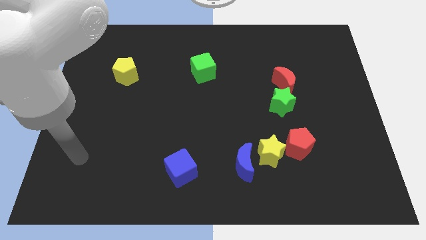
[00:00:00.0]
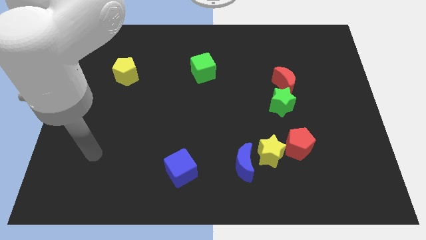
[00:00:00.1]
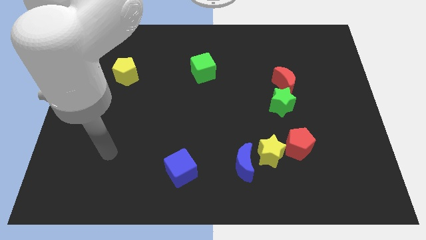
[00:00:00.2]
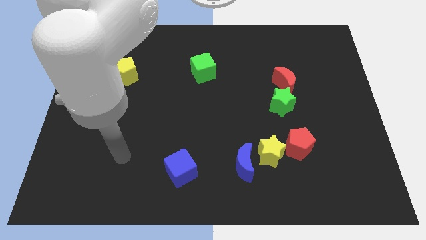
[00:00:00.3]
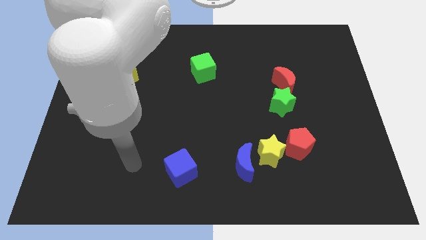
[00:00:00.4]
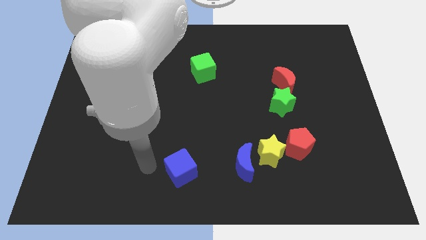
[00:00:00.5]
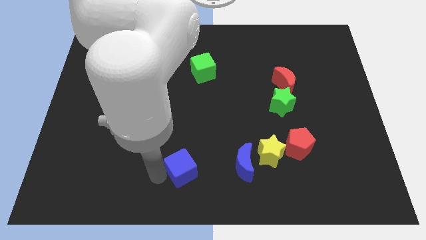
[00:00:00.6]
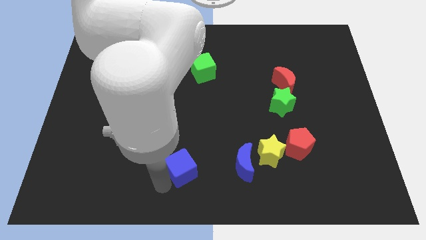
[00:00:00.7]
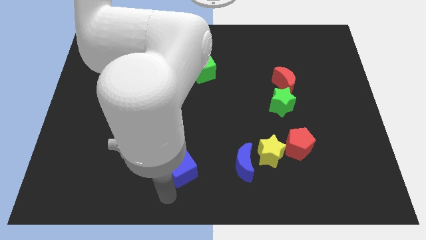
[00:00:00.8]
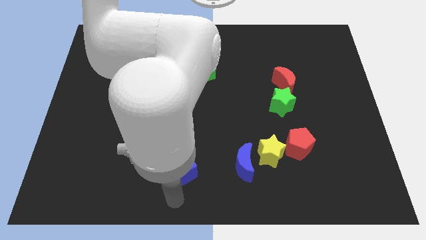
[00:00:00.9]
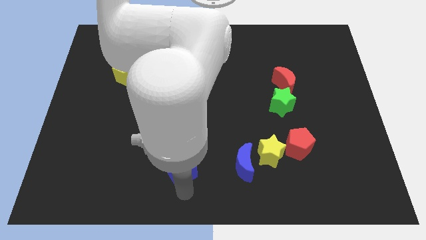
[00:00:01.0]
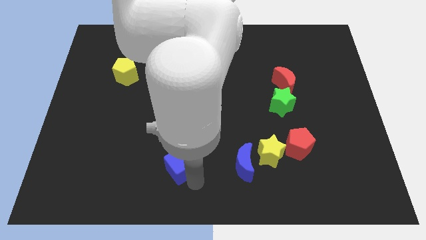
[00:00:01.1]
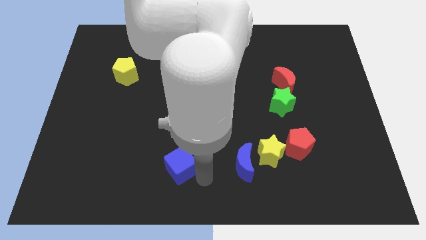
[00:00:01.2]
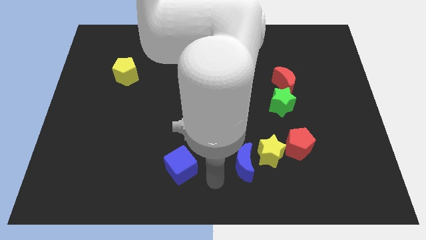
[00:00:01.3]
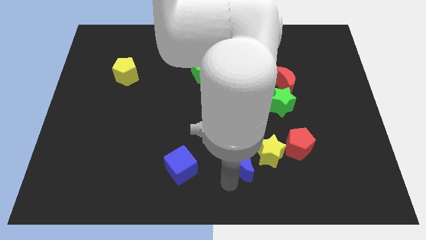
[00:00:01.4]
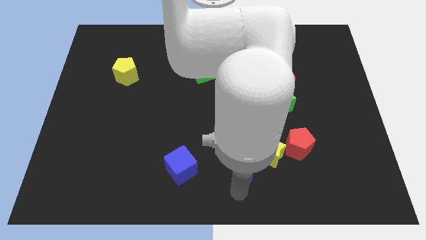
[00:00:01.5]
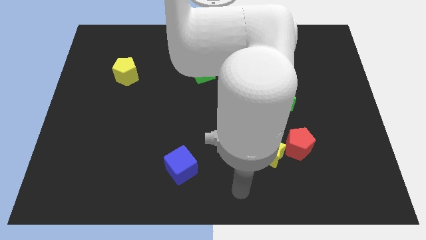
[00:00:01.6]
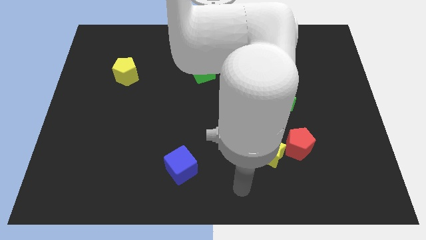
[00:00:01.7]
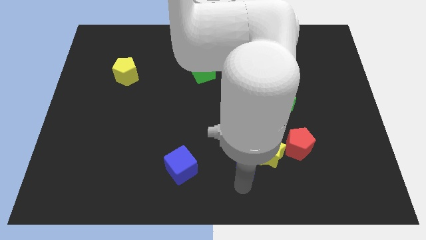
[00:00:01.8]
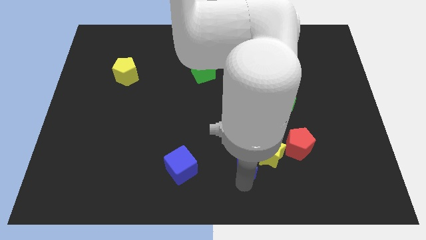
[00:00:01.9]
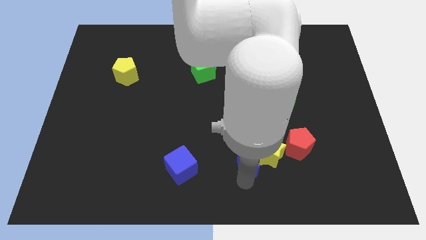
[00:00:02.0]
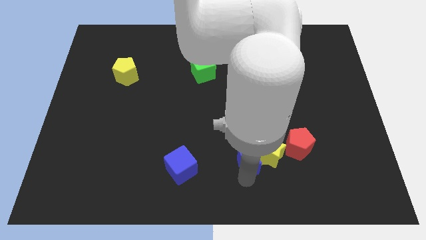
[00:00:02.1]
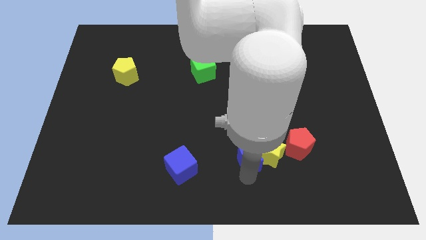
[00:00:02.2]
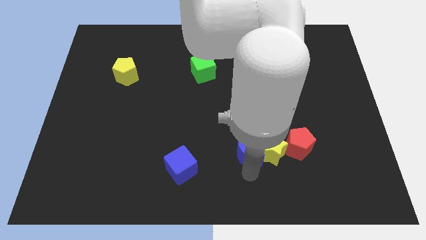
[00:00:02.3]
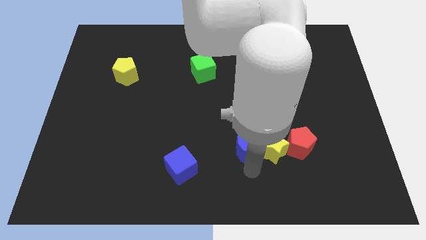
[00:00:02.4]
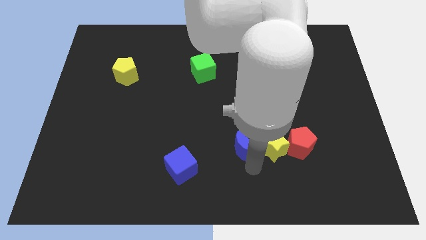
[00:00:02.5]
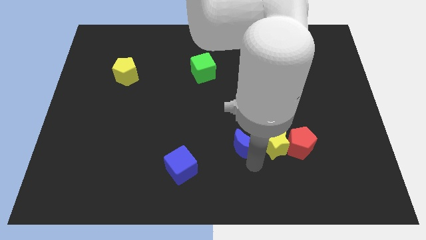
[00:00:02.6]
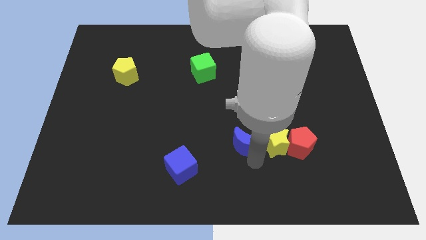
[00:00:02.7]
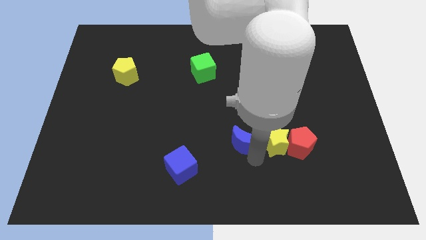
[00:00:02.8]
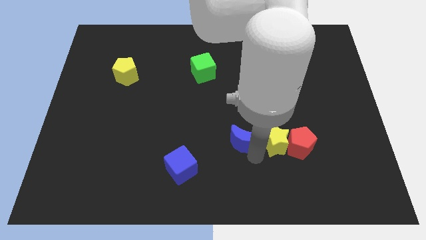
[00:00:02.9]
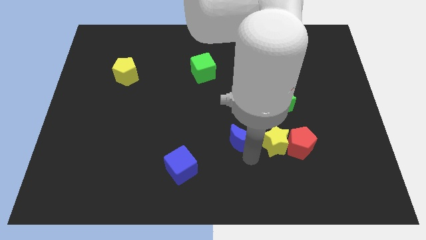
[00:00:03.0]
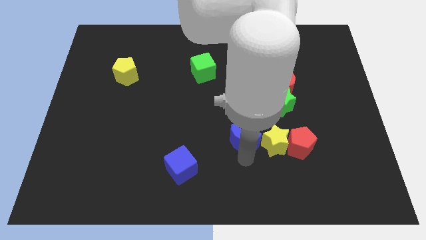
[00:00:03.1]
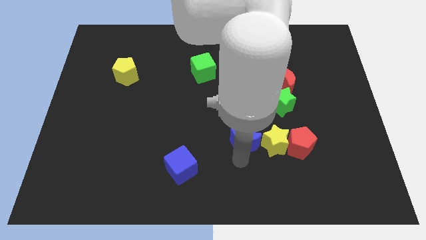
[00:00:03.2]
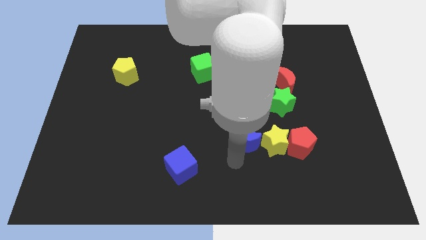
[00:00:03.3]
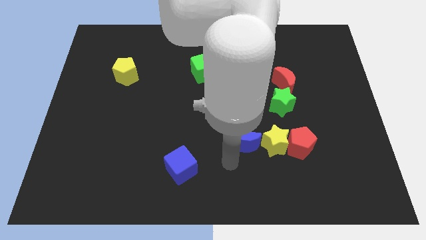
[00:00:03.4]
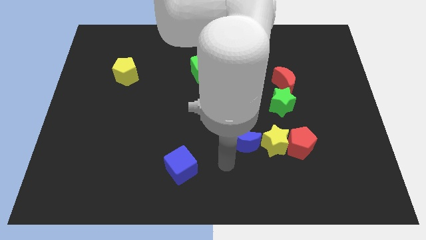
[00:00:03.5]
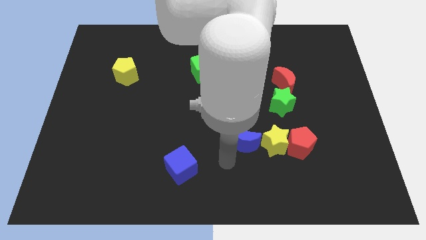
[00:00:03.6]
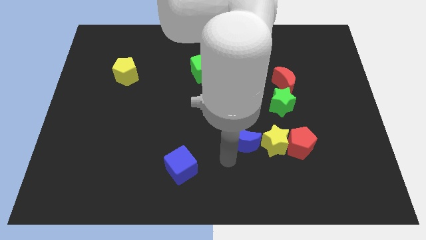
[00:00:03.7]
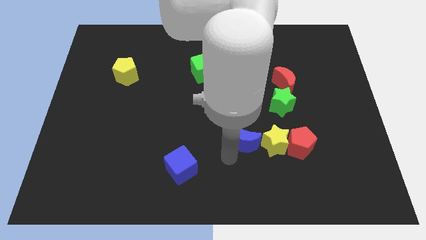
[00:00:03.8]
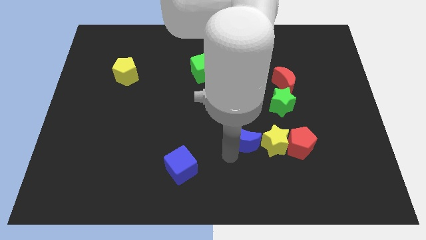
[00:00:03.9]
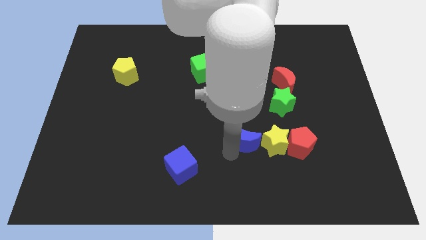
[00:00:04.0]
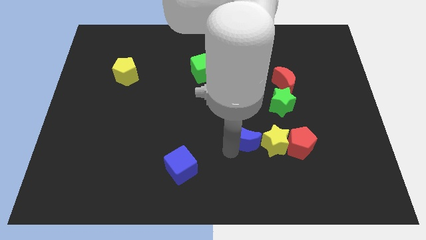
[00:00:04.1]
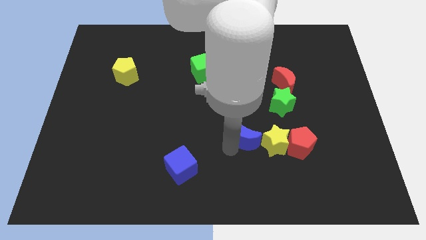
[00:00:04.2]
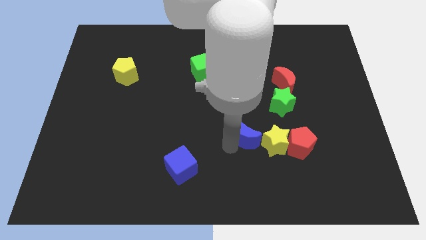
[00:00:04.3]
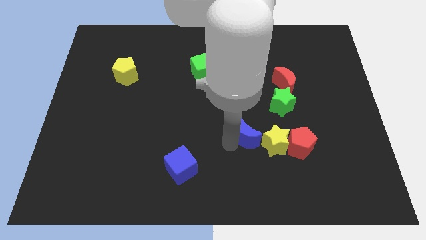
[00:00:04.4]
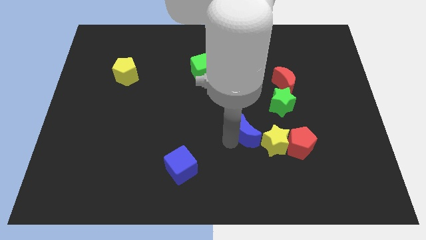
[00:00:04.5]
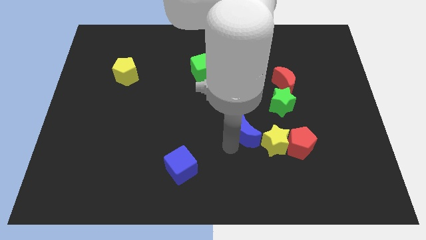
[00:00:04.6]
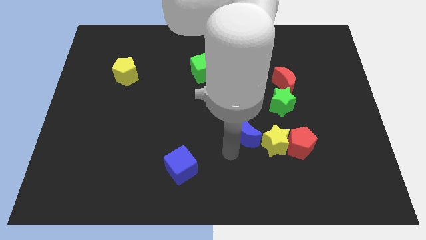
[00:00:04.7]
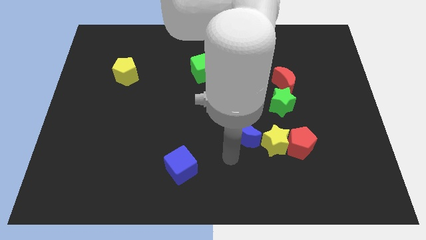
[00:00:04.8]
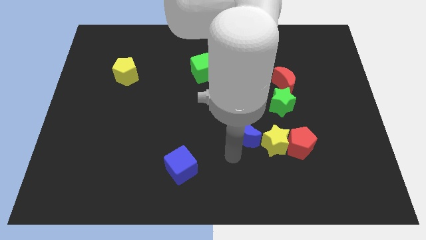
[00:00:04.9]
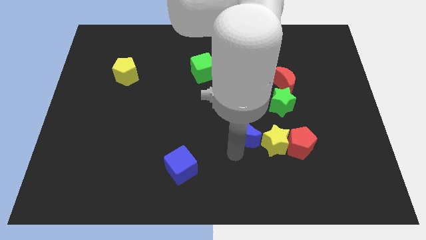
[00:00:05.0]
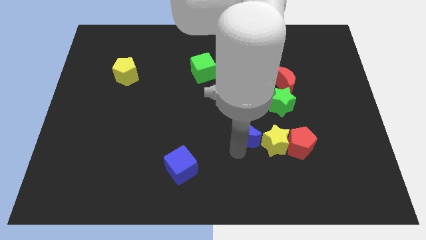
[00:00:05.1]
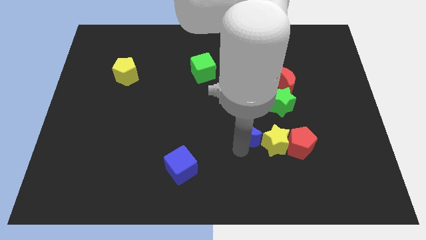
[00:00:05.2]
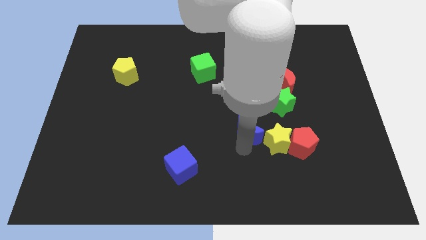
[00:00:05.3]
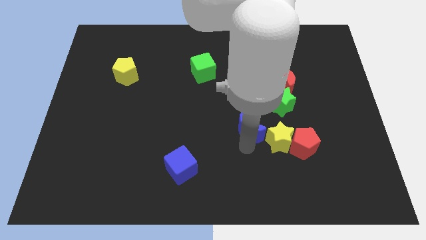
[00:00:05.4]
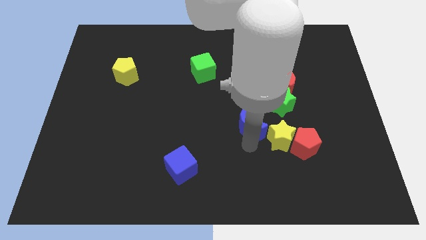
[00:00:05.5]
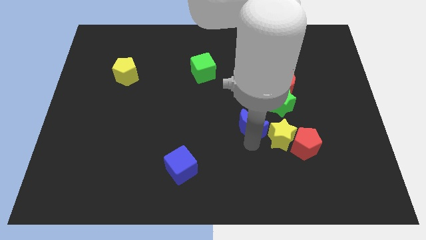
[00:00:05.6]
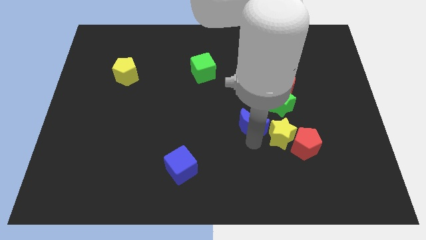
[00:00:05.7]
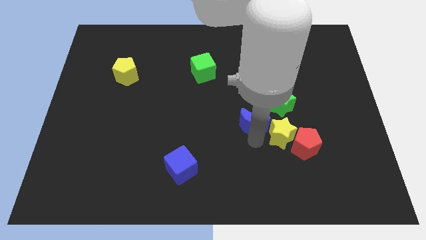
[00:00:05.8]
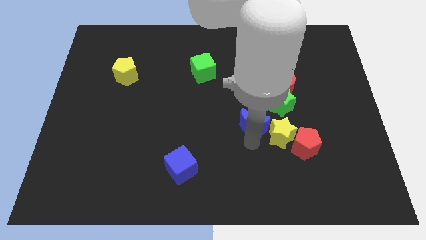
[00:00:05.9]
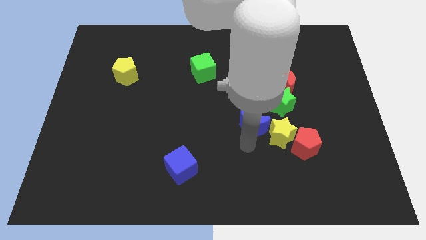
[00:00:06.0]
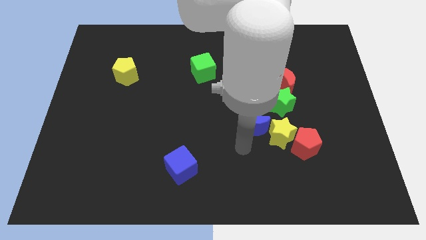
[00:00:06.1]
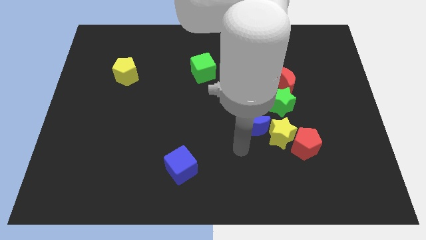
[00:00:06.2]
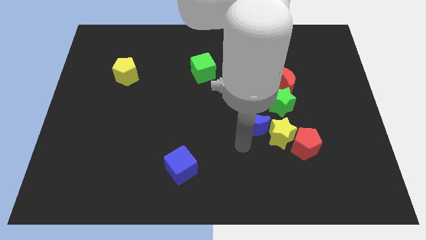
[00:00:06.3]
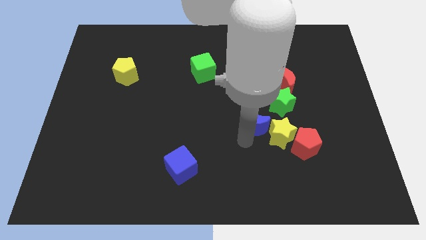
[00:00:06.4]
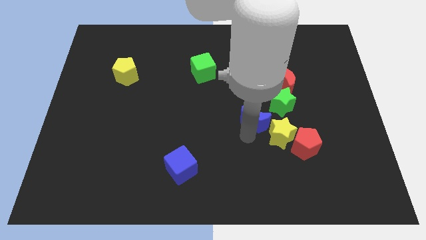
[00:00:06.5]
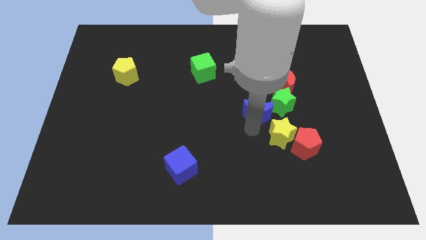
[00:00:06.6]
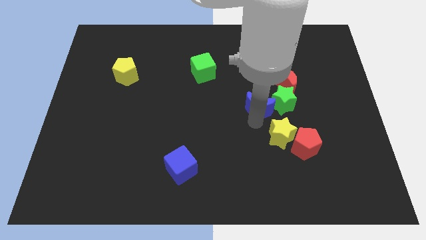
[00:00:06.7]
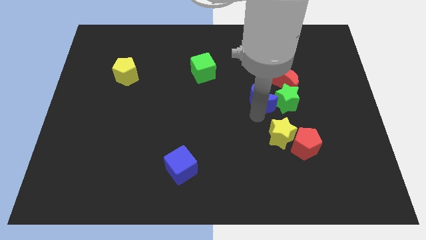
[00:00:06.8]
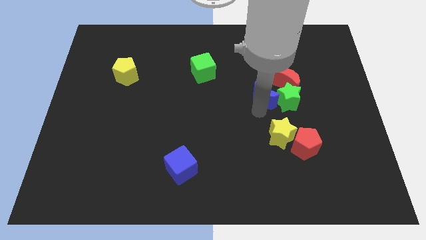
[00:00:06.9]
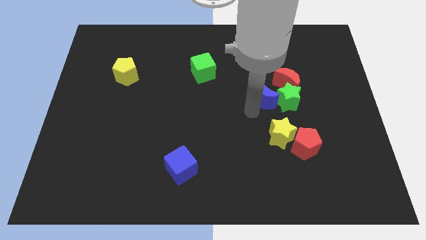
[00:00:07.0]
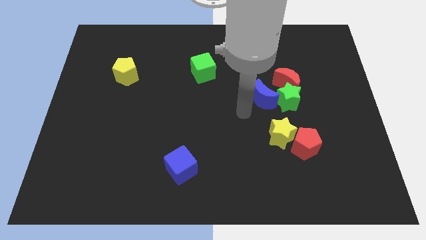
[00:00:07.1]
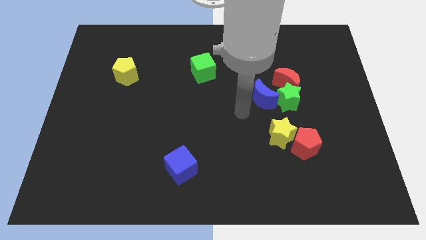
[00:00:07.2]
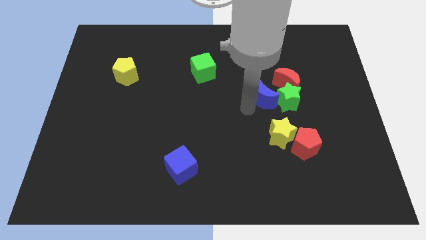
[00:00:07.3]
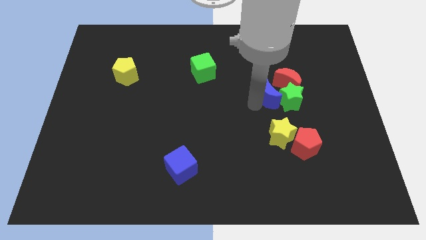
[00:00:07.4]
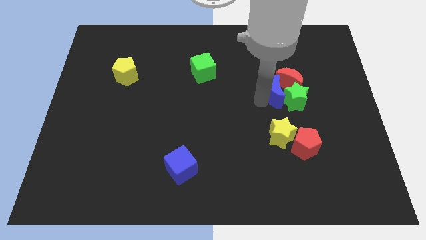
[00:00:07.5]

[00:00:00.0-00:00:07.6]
push the blue moon to the red moon
